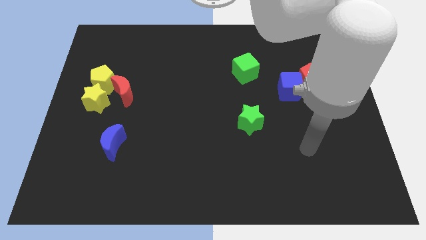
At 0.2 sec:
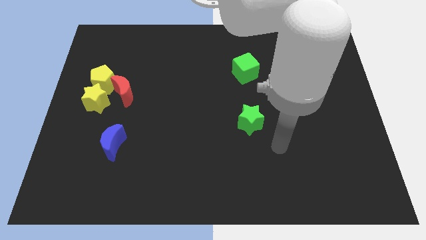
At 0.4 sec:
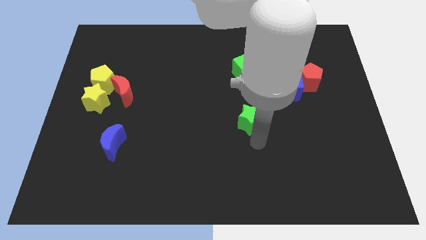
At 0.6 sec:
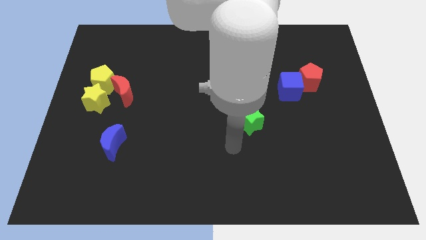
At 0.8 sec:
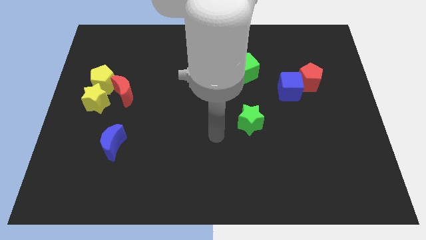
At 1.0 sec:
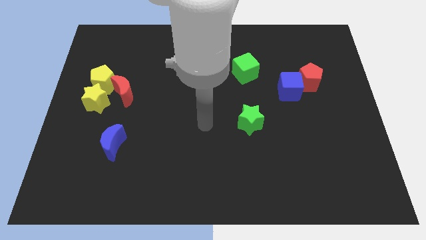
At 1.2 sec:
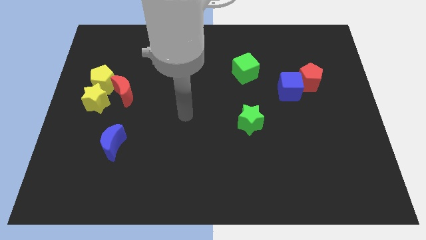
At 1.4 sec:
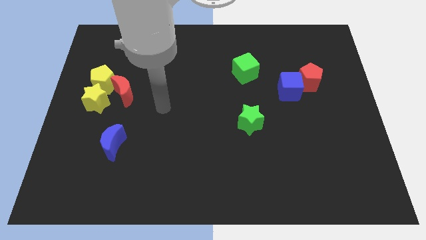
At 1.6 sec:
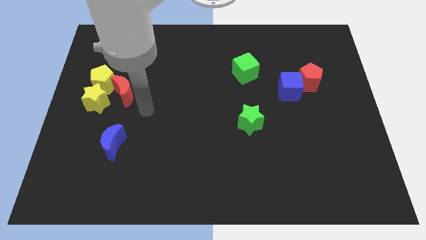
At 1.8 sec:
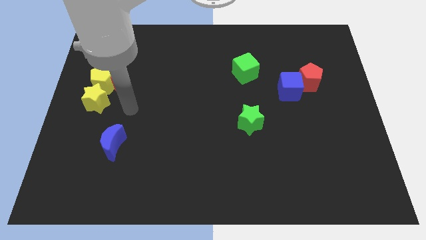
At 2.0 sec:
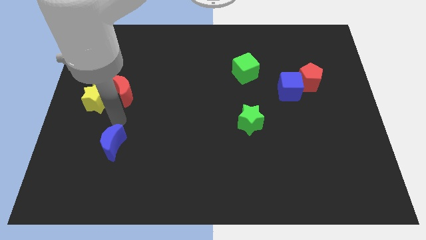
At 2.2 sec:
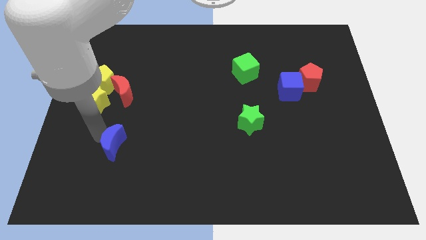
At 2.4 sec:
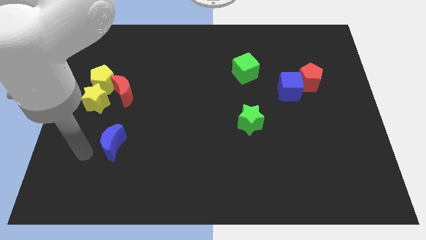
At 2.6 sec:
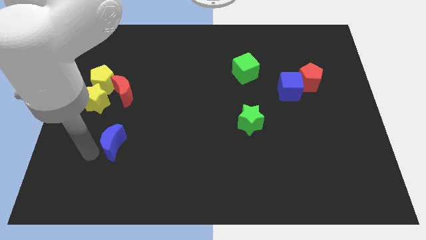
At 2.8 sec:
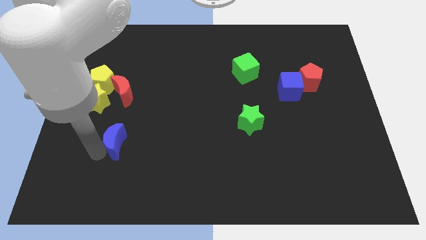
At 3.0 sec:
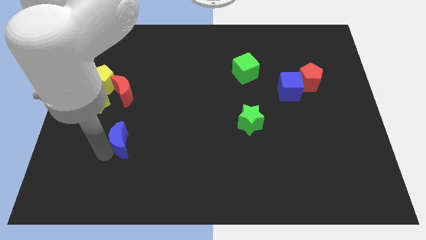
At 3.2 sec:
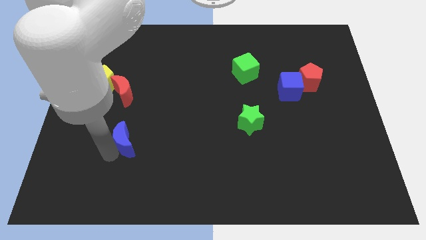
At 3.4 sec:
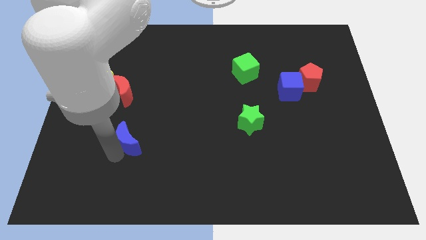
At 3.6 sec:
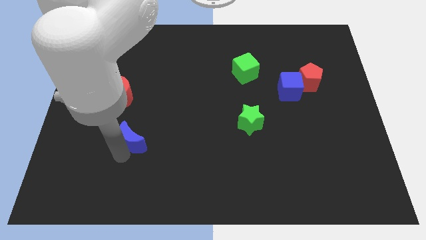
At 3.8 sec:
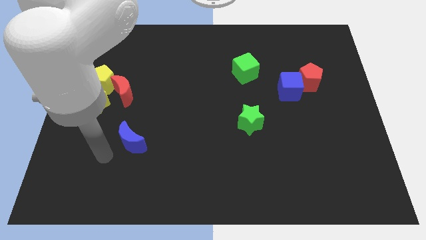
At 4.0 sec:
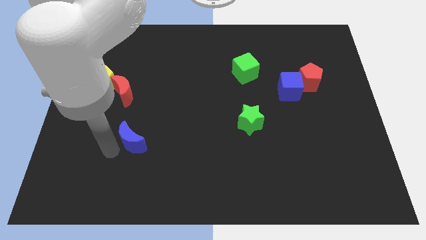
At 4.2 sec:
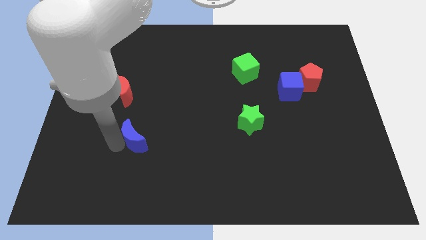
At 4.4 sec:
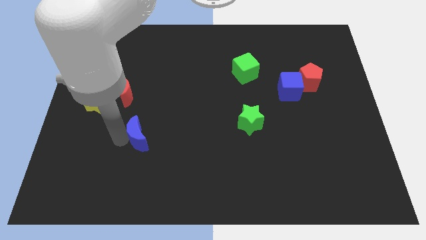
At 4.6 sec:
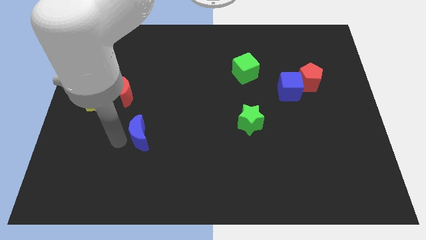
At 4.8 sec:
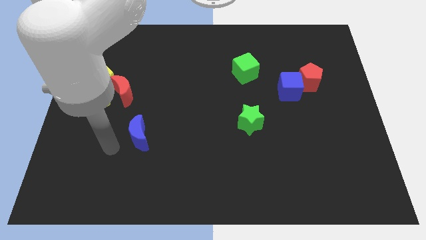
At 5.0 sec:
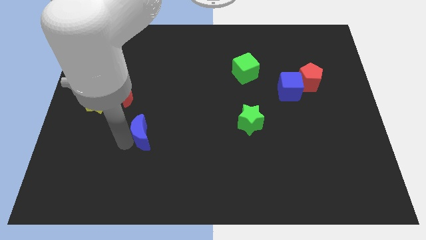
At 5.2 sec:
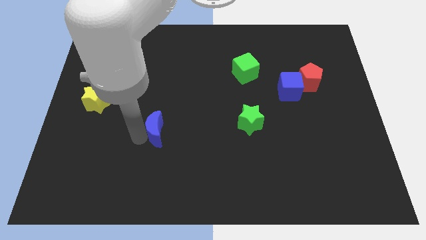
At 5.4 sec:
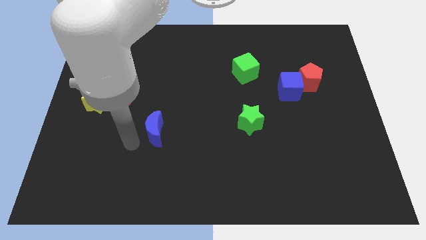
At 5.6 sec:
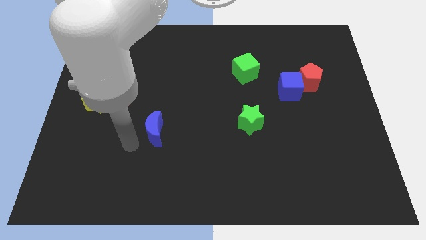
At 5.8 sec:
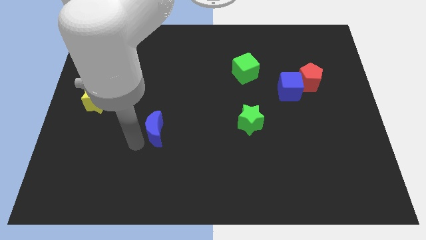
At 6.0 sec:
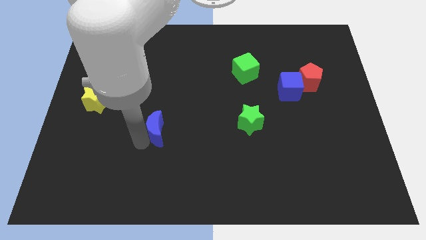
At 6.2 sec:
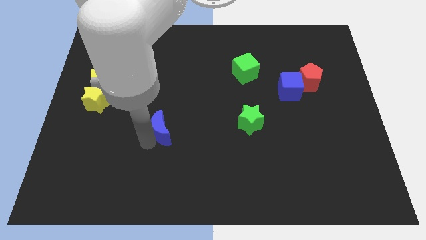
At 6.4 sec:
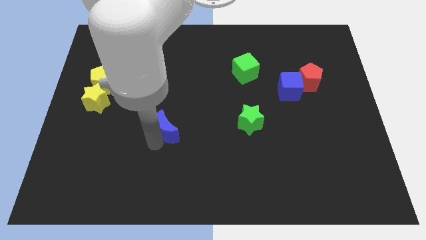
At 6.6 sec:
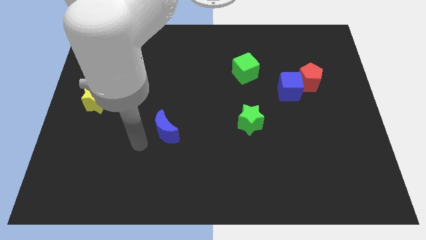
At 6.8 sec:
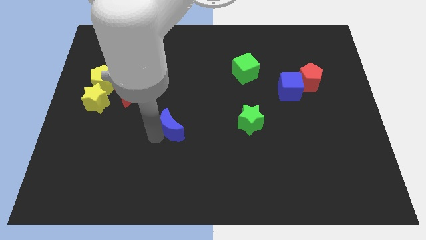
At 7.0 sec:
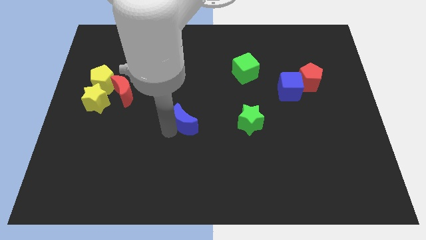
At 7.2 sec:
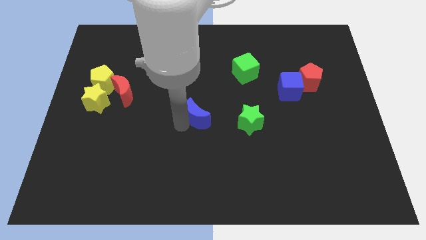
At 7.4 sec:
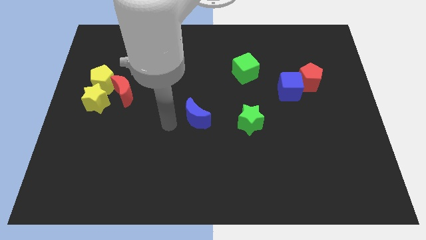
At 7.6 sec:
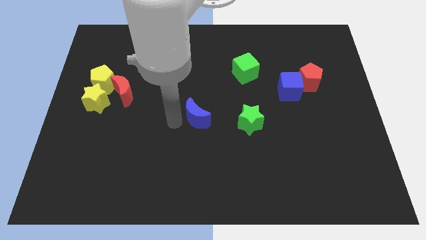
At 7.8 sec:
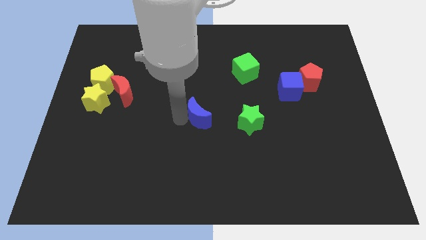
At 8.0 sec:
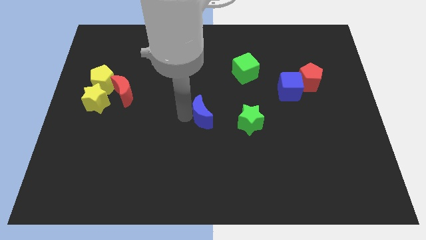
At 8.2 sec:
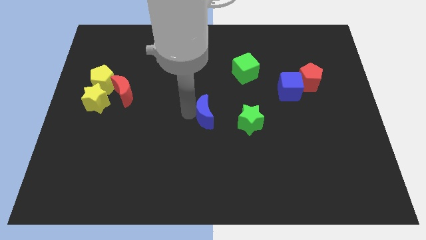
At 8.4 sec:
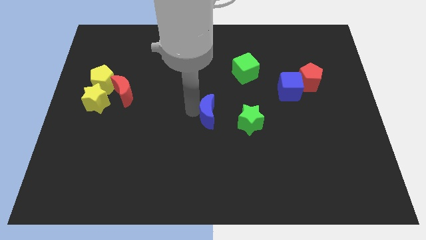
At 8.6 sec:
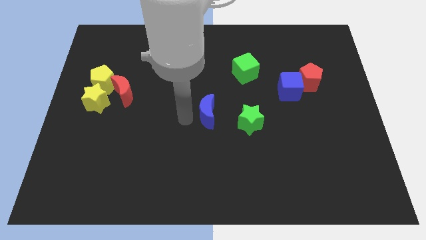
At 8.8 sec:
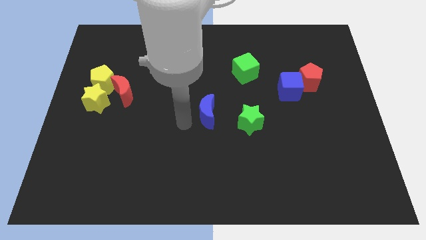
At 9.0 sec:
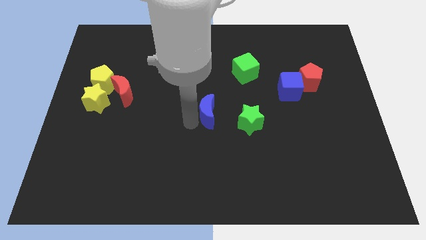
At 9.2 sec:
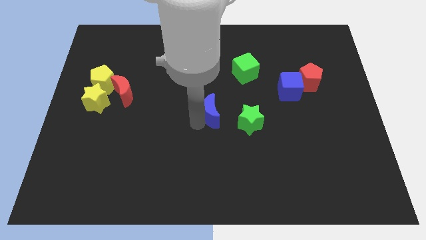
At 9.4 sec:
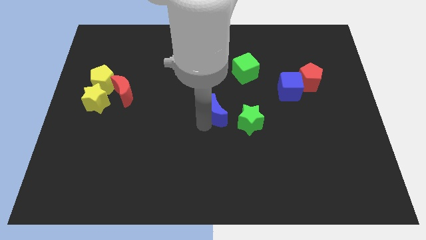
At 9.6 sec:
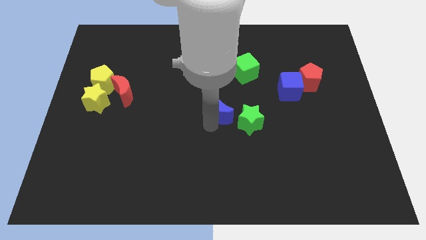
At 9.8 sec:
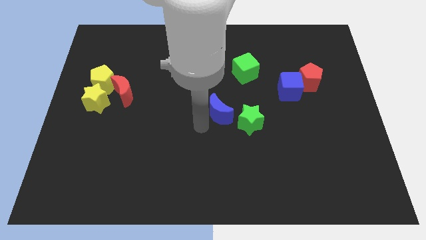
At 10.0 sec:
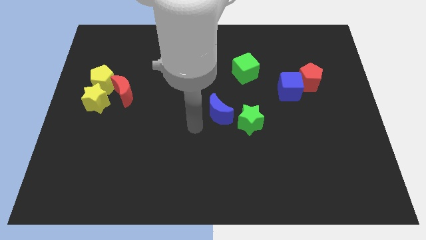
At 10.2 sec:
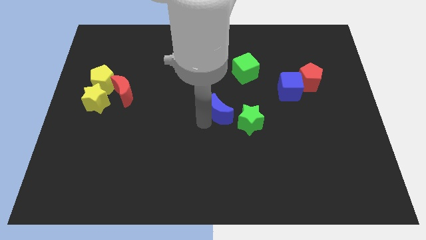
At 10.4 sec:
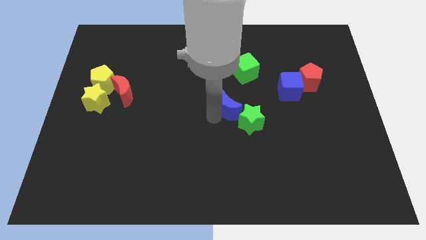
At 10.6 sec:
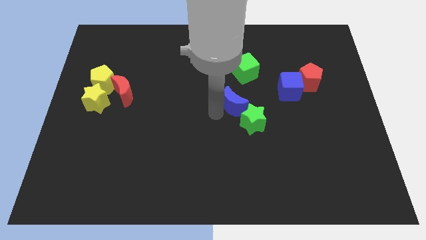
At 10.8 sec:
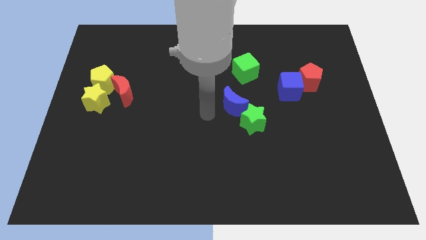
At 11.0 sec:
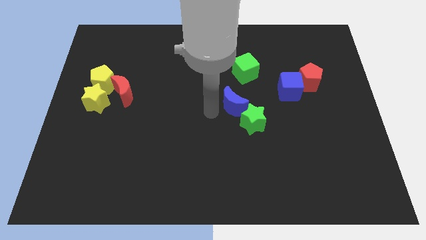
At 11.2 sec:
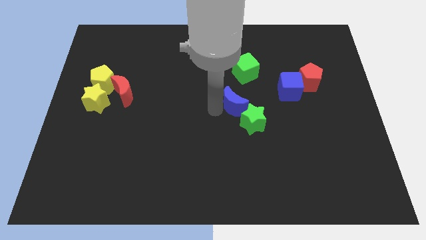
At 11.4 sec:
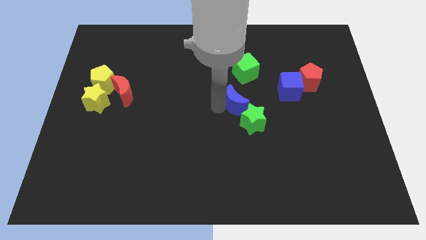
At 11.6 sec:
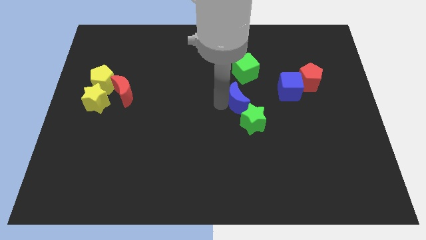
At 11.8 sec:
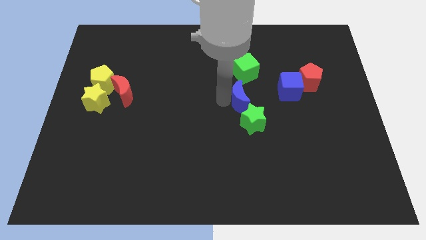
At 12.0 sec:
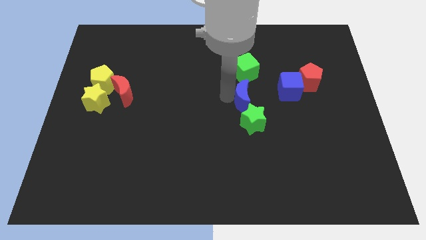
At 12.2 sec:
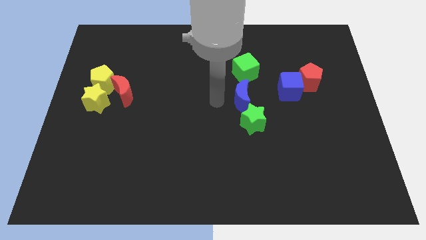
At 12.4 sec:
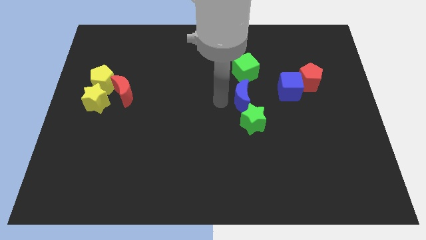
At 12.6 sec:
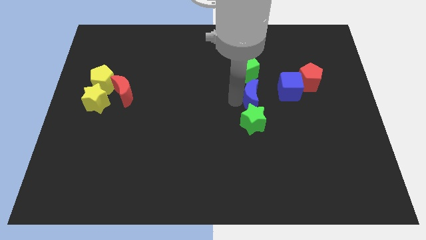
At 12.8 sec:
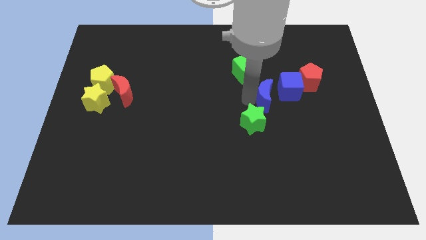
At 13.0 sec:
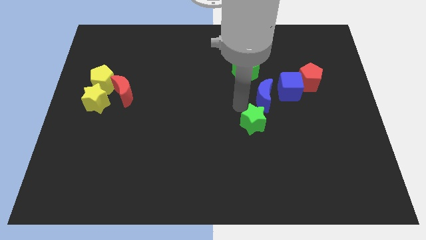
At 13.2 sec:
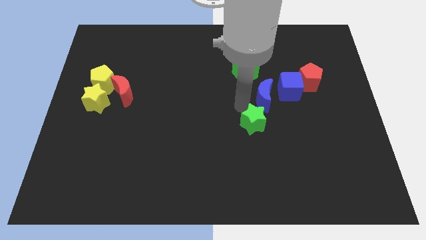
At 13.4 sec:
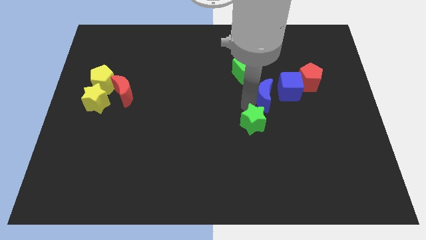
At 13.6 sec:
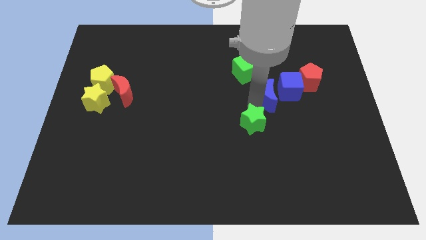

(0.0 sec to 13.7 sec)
push the blue moon next to the blue cube
